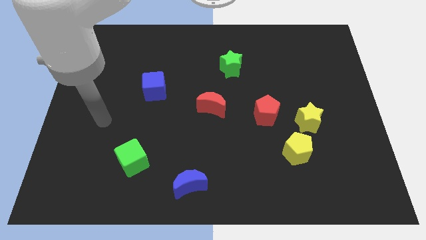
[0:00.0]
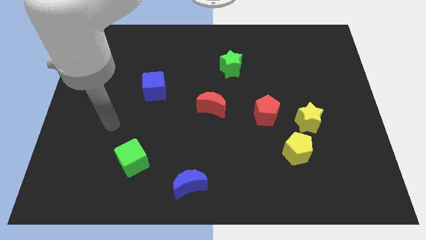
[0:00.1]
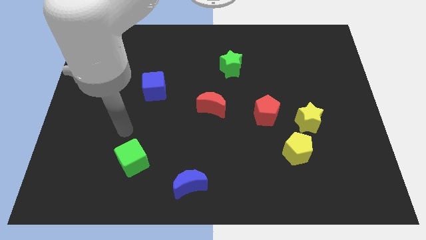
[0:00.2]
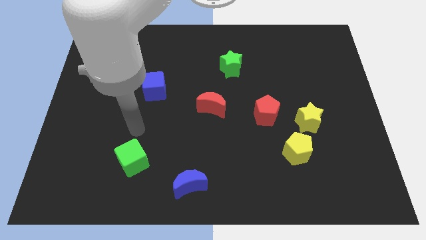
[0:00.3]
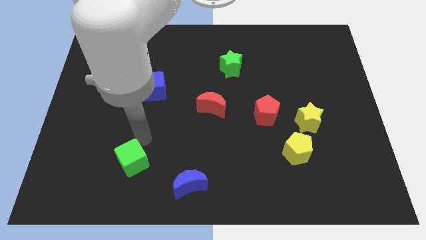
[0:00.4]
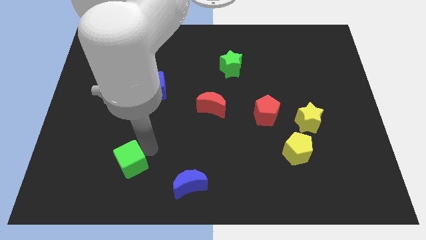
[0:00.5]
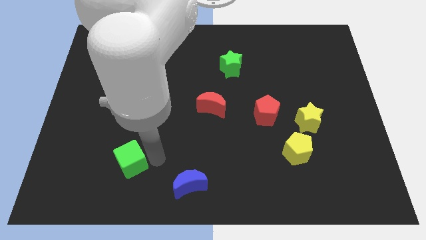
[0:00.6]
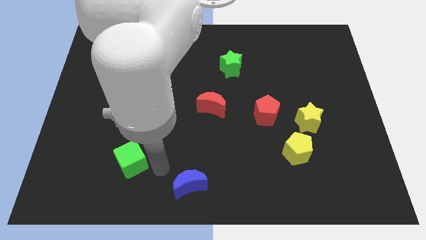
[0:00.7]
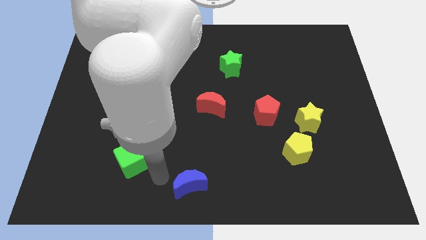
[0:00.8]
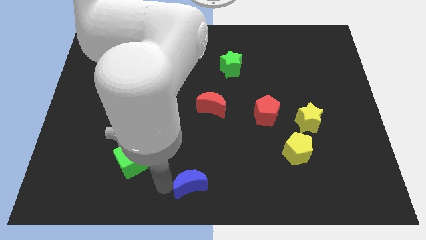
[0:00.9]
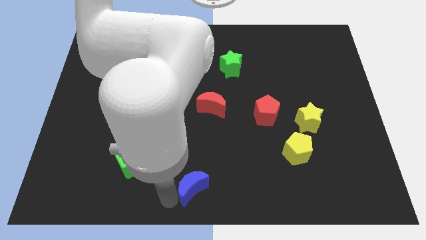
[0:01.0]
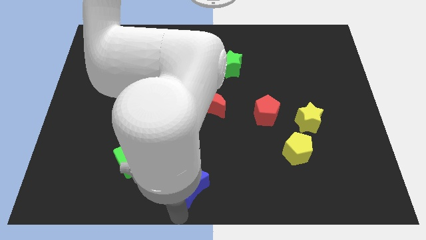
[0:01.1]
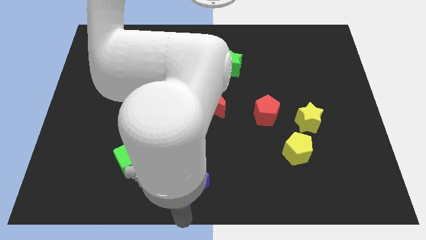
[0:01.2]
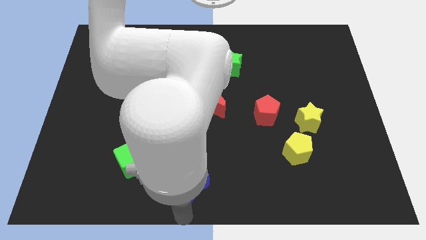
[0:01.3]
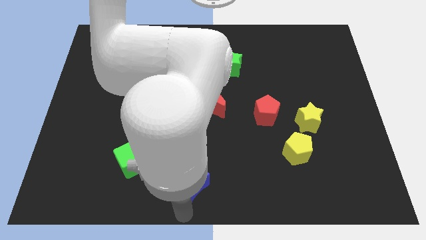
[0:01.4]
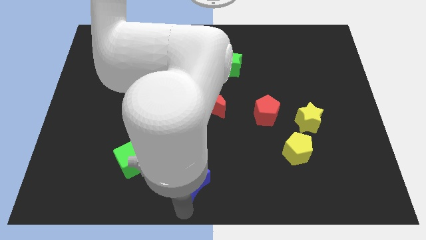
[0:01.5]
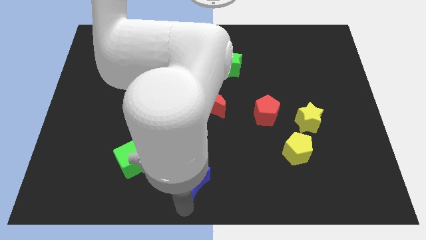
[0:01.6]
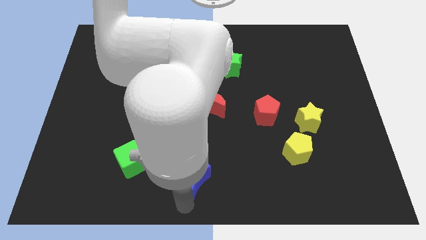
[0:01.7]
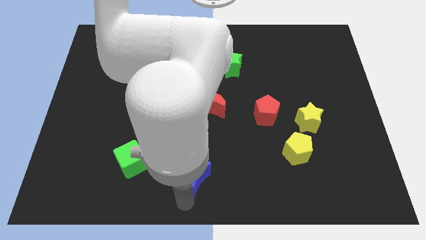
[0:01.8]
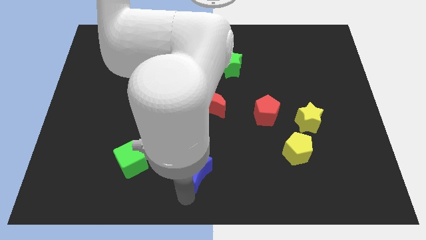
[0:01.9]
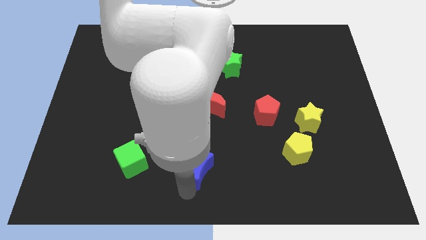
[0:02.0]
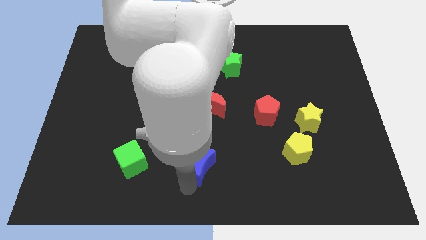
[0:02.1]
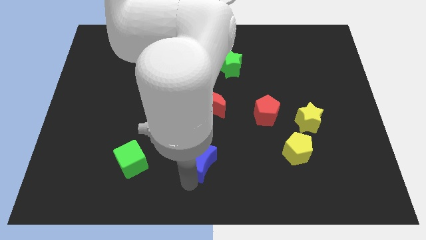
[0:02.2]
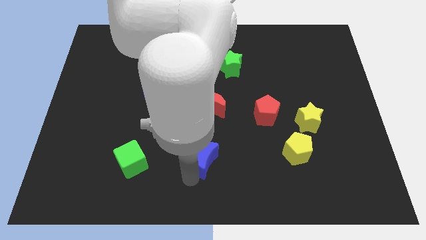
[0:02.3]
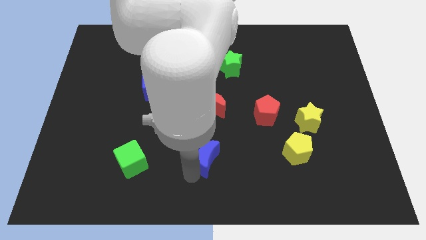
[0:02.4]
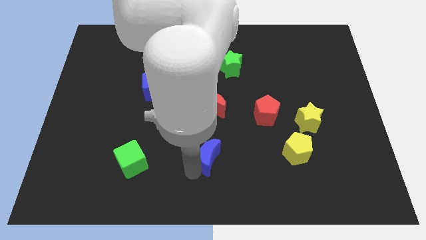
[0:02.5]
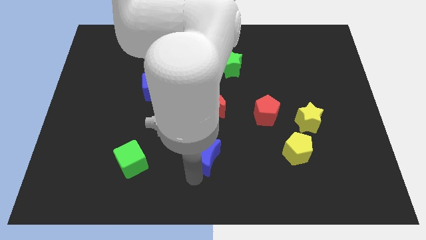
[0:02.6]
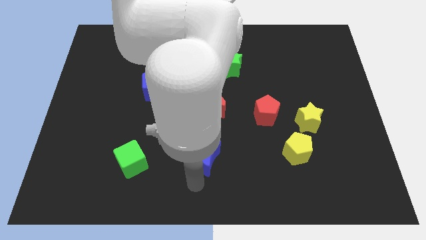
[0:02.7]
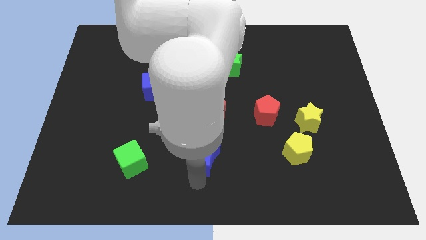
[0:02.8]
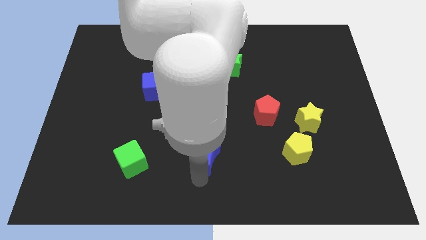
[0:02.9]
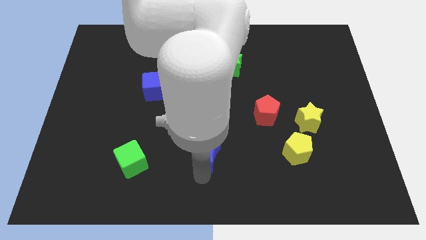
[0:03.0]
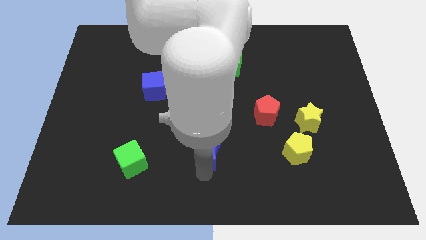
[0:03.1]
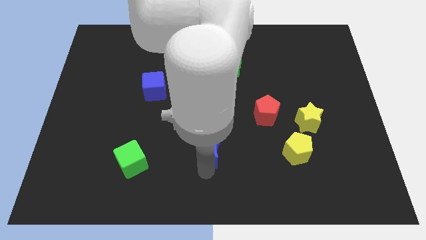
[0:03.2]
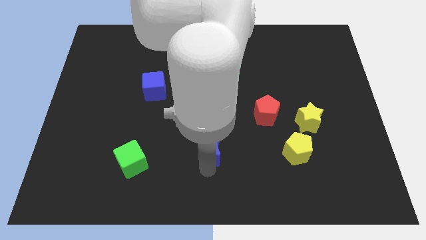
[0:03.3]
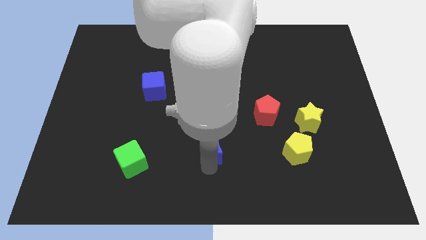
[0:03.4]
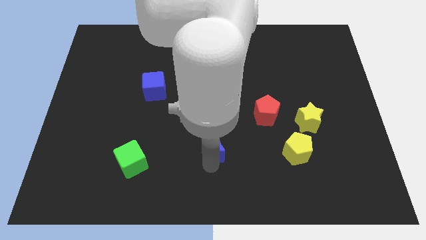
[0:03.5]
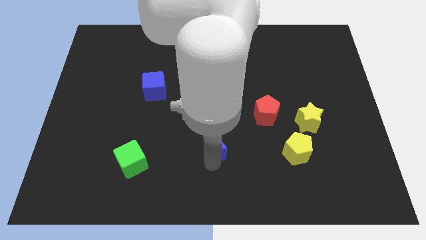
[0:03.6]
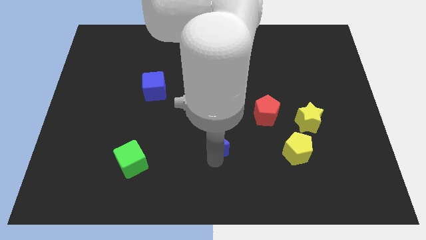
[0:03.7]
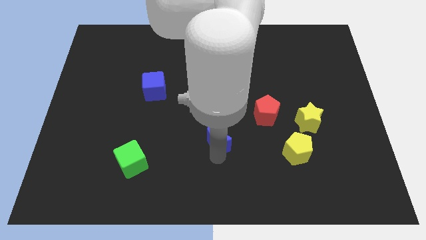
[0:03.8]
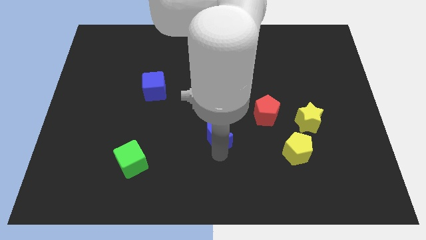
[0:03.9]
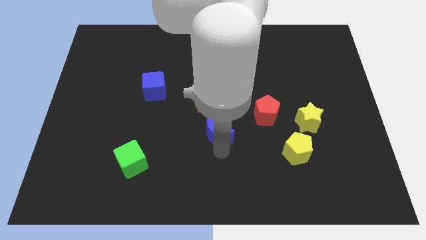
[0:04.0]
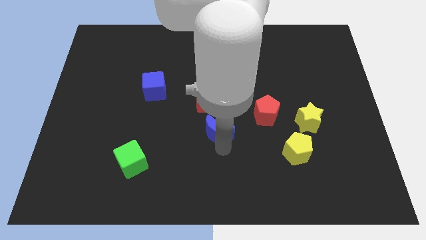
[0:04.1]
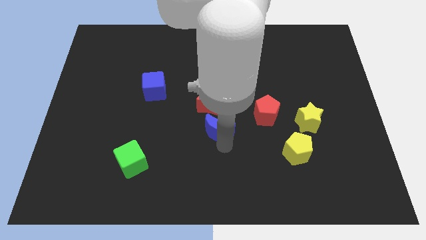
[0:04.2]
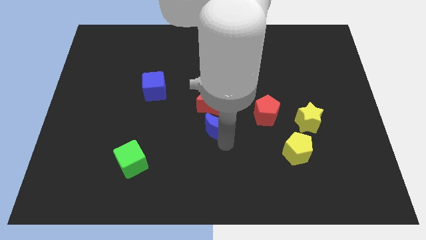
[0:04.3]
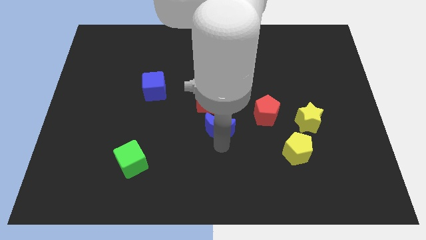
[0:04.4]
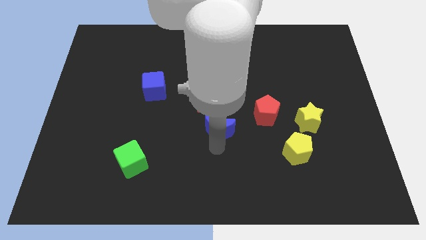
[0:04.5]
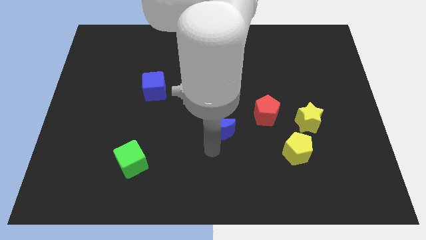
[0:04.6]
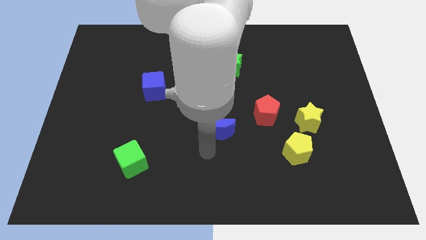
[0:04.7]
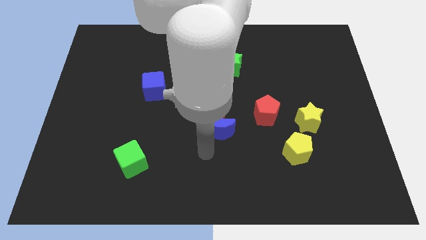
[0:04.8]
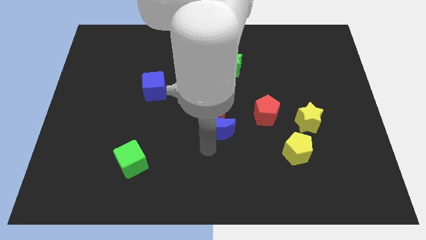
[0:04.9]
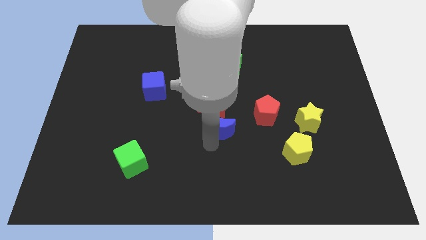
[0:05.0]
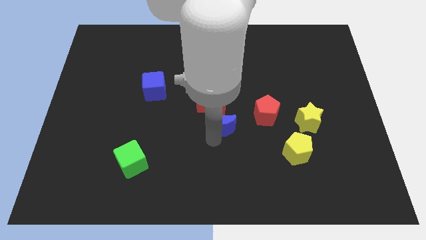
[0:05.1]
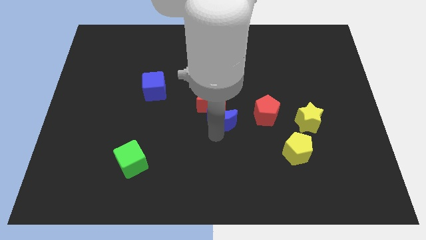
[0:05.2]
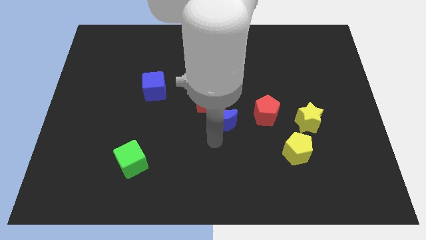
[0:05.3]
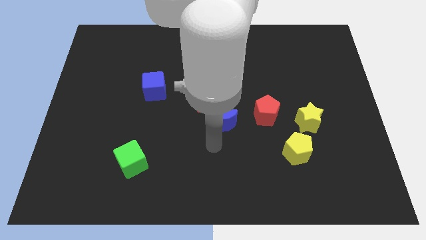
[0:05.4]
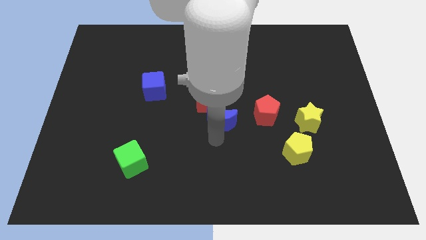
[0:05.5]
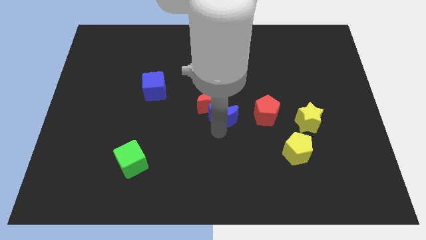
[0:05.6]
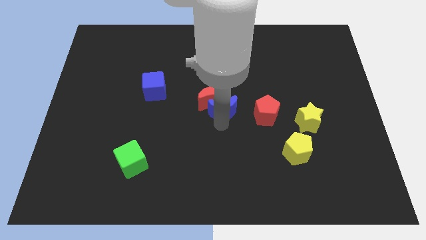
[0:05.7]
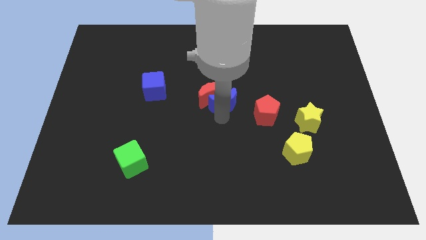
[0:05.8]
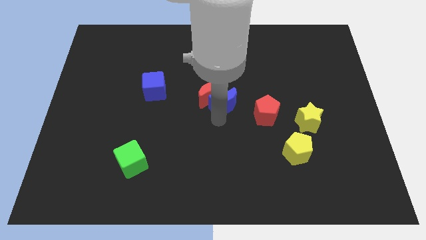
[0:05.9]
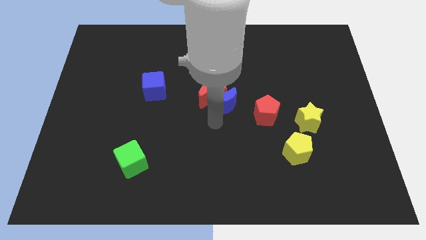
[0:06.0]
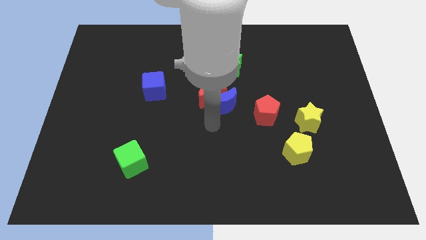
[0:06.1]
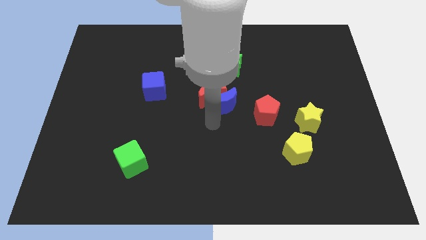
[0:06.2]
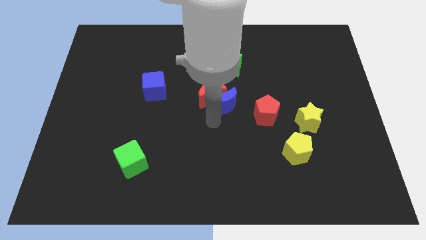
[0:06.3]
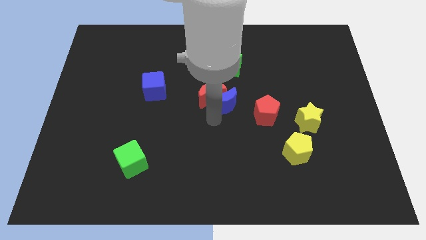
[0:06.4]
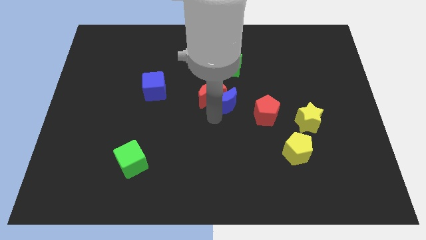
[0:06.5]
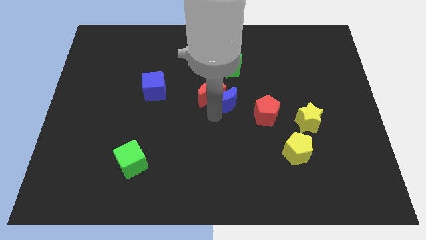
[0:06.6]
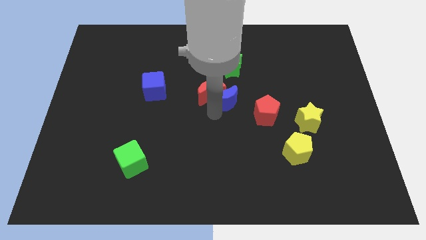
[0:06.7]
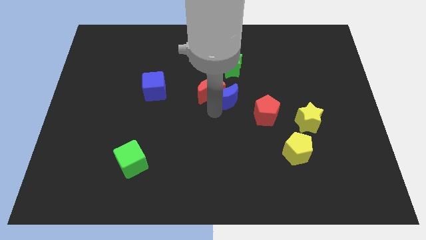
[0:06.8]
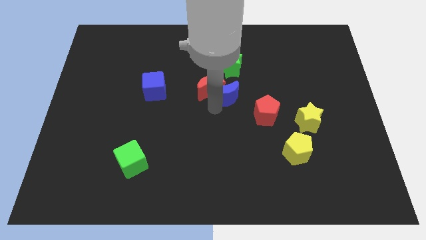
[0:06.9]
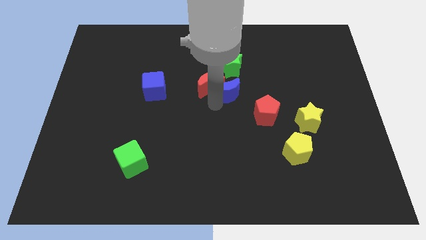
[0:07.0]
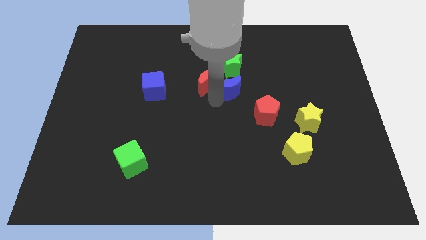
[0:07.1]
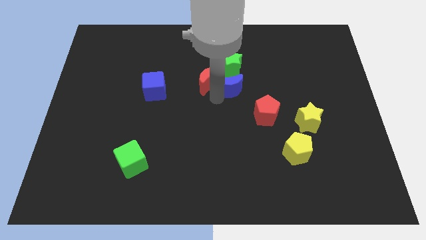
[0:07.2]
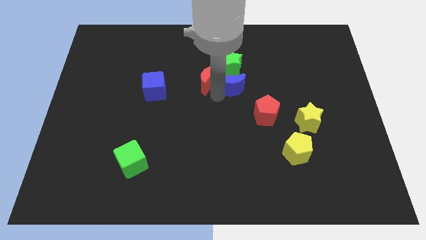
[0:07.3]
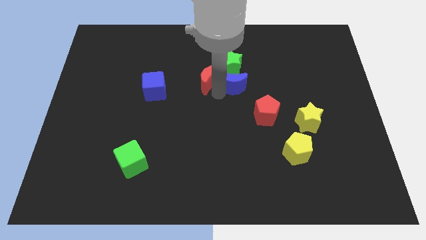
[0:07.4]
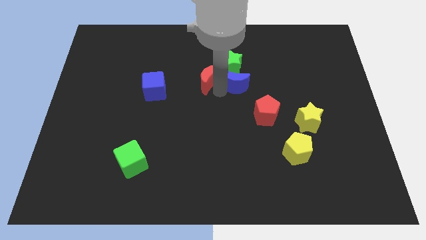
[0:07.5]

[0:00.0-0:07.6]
put the blue moon to the green star
